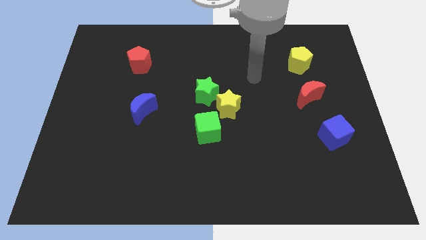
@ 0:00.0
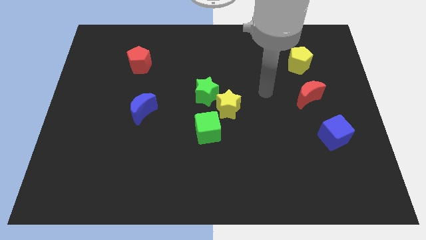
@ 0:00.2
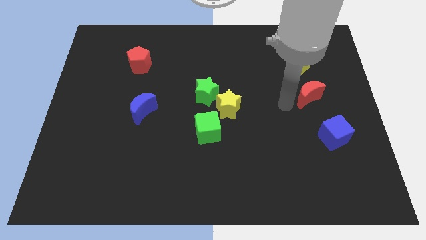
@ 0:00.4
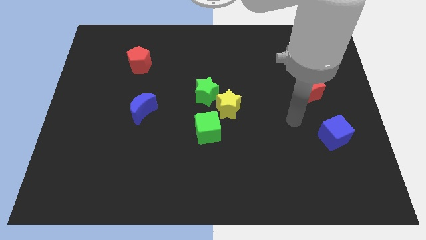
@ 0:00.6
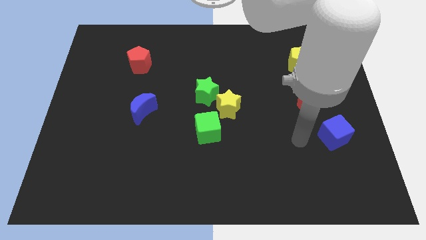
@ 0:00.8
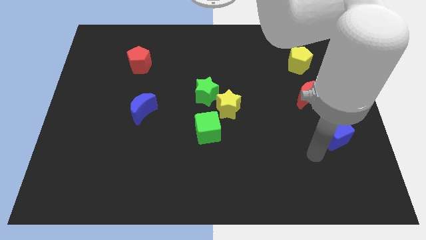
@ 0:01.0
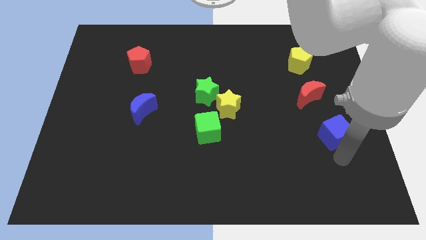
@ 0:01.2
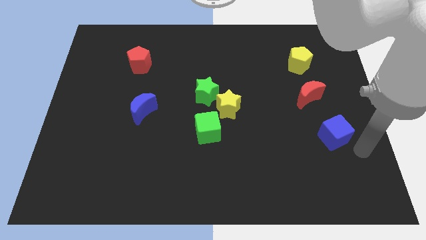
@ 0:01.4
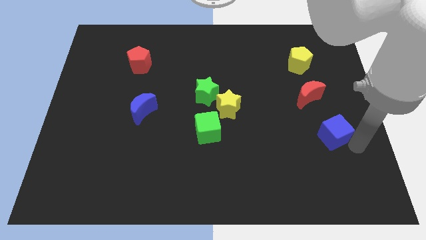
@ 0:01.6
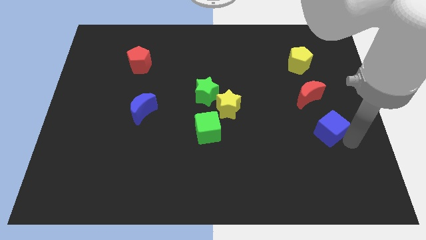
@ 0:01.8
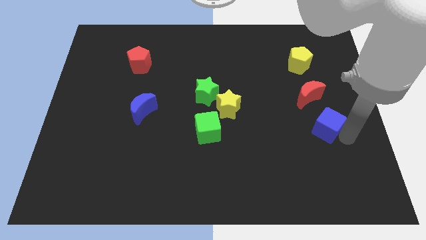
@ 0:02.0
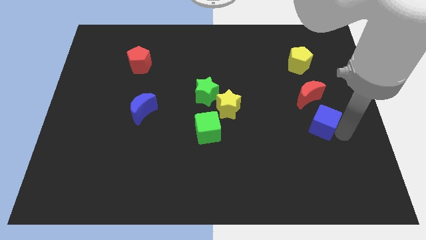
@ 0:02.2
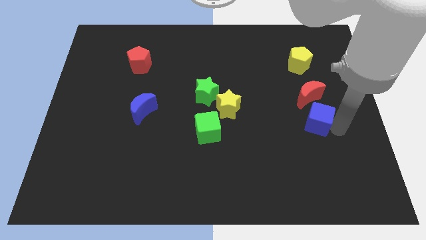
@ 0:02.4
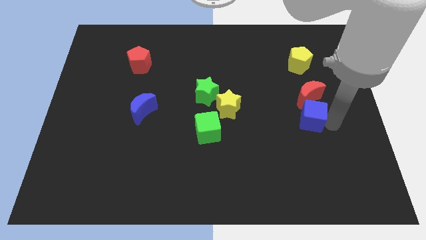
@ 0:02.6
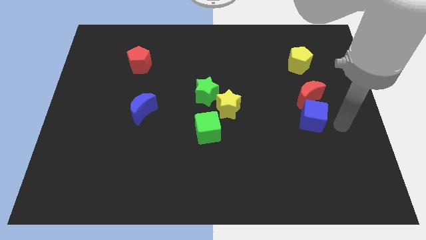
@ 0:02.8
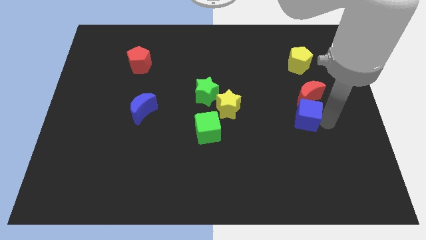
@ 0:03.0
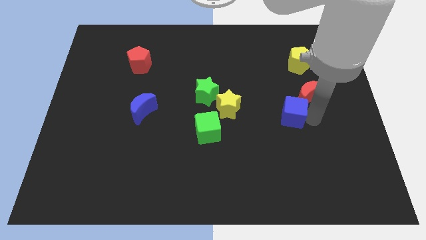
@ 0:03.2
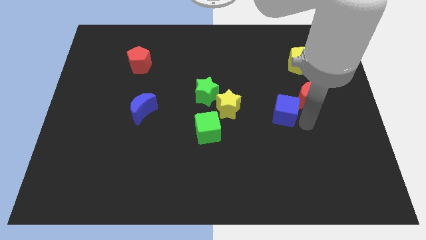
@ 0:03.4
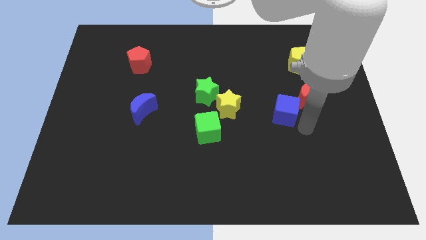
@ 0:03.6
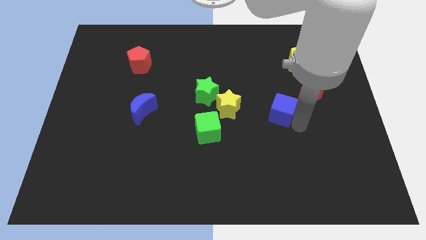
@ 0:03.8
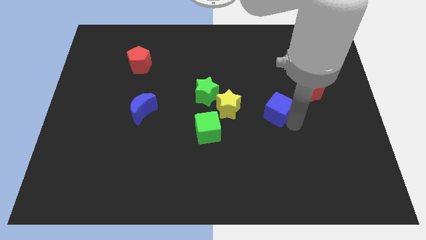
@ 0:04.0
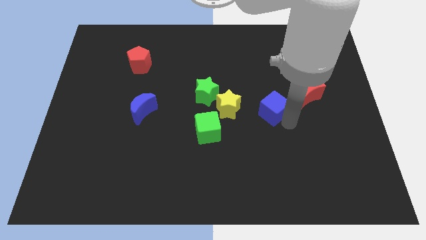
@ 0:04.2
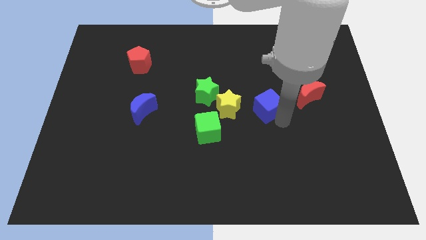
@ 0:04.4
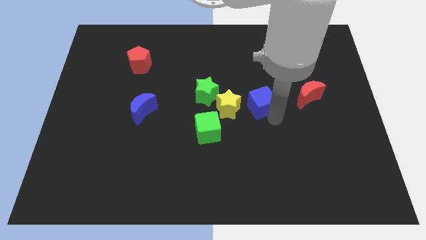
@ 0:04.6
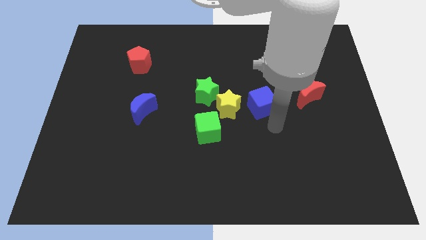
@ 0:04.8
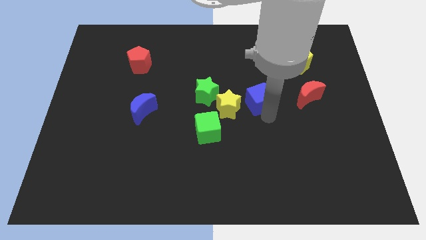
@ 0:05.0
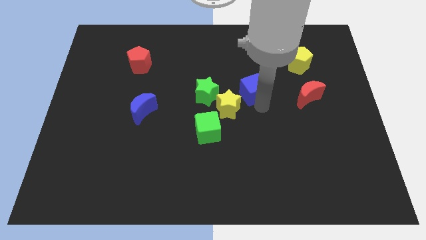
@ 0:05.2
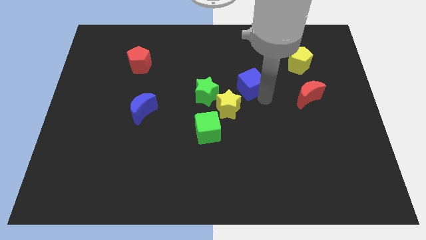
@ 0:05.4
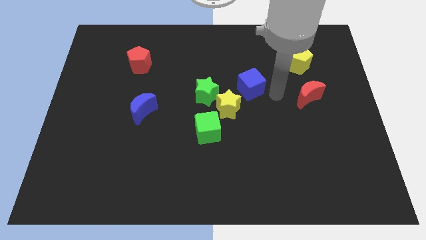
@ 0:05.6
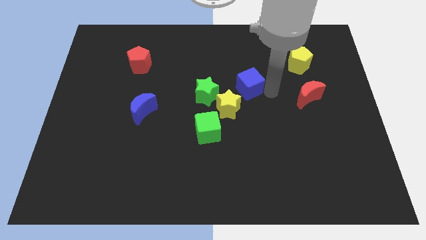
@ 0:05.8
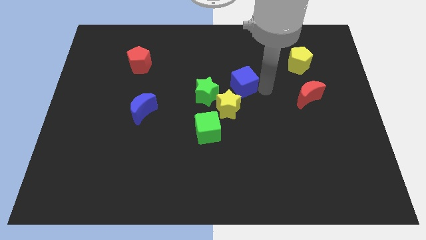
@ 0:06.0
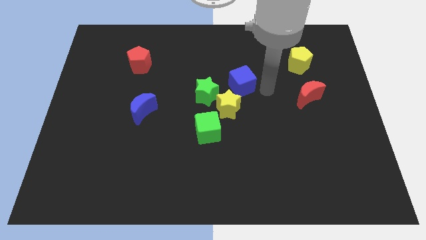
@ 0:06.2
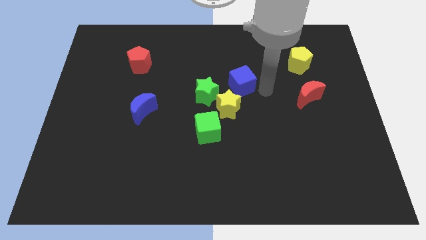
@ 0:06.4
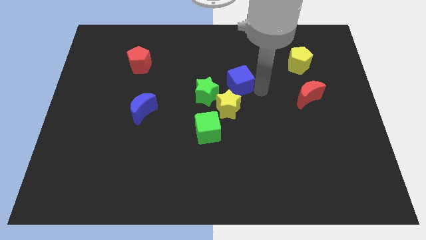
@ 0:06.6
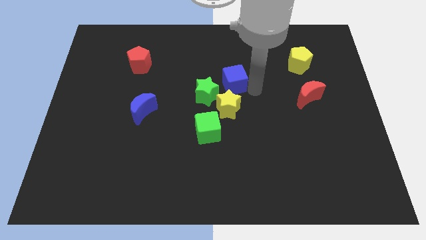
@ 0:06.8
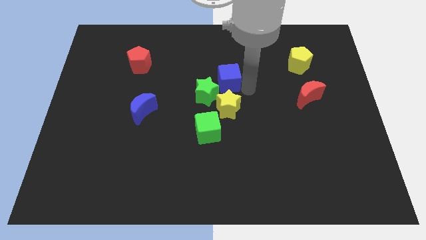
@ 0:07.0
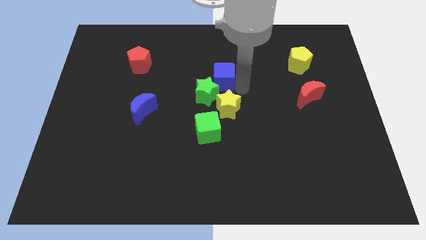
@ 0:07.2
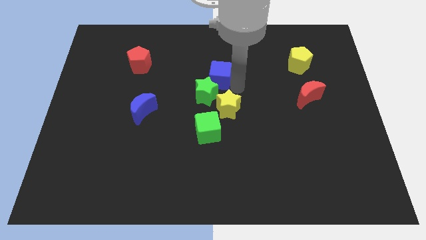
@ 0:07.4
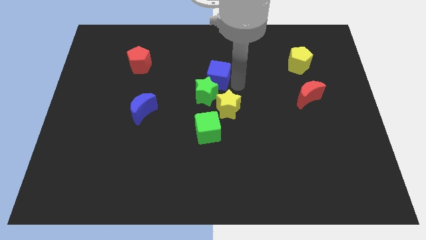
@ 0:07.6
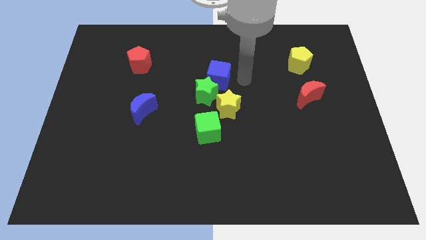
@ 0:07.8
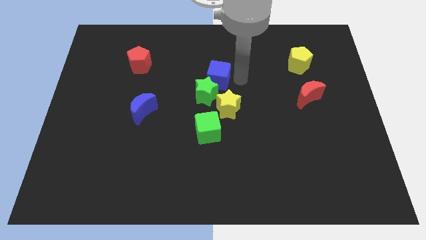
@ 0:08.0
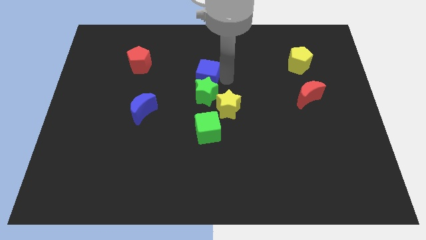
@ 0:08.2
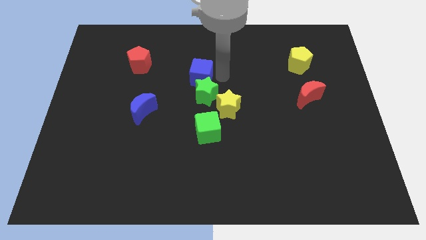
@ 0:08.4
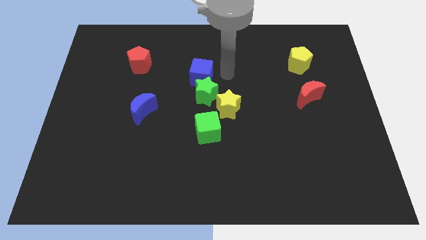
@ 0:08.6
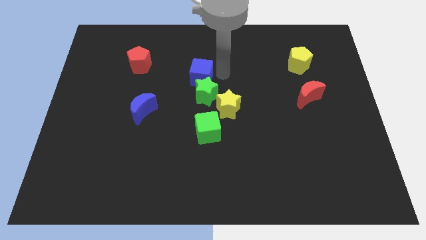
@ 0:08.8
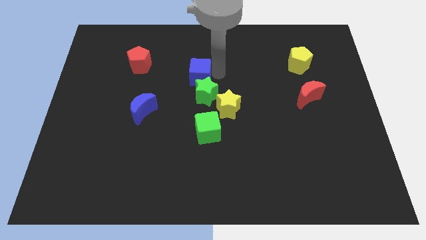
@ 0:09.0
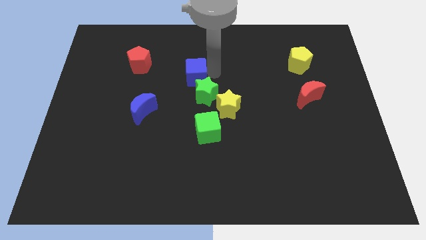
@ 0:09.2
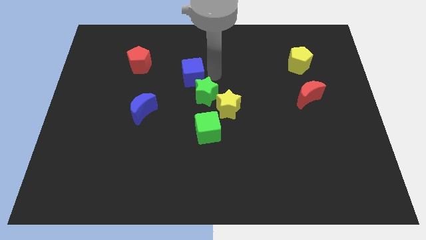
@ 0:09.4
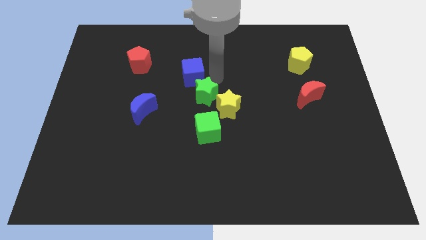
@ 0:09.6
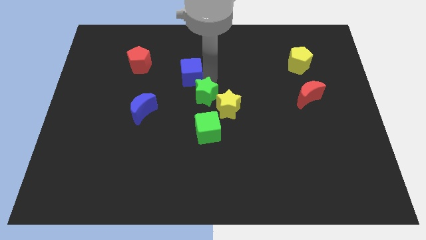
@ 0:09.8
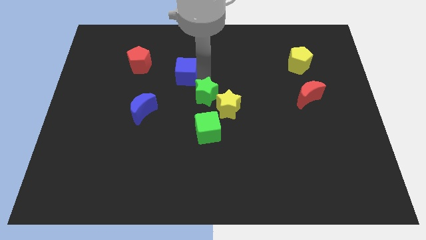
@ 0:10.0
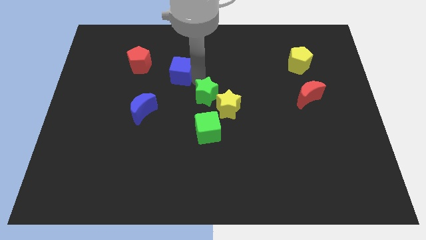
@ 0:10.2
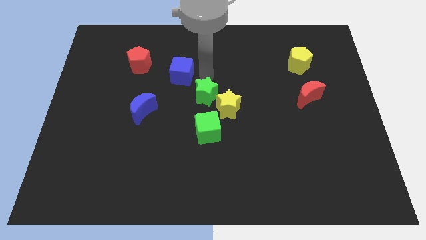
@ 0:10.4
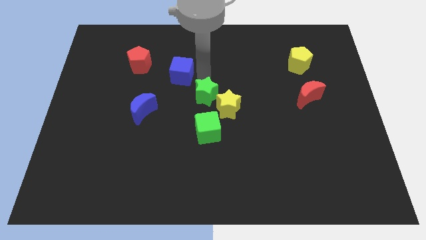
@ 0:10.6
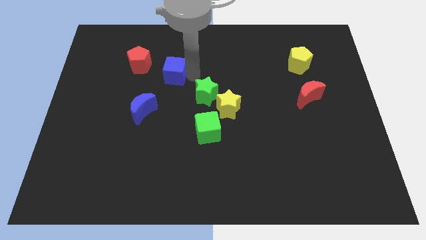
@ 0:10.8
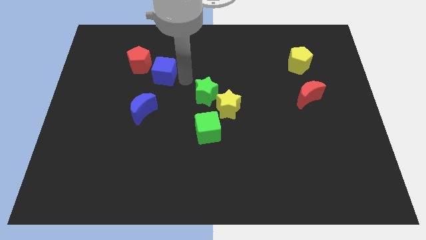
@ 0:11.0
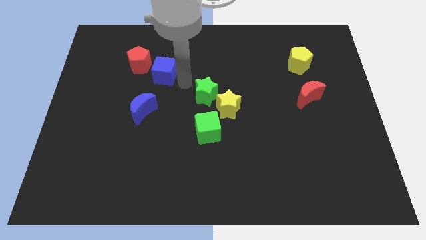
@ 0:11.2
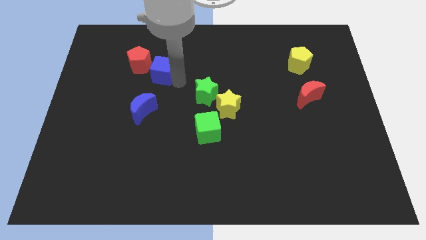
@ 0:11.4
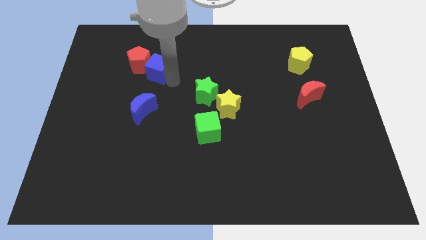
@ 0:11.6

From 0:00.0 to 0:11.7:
put the blue cube to the red pentagon

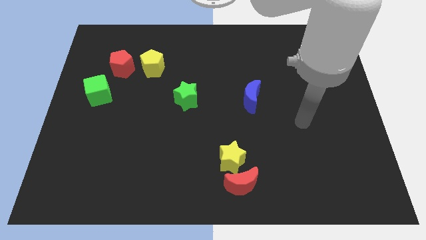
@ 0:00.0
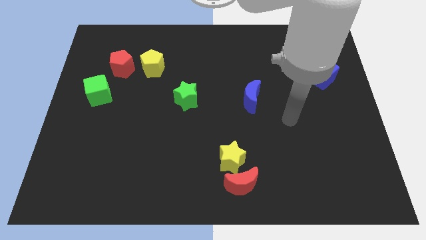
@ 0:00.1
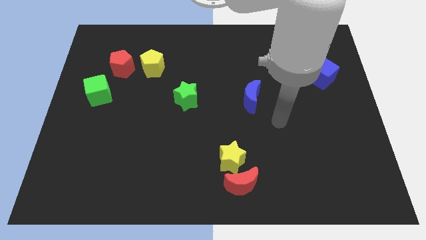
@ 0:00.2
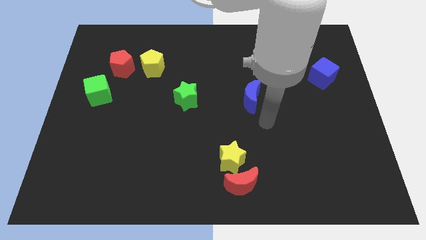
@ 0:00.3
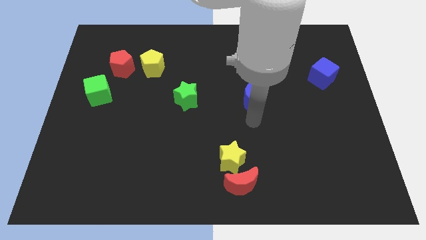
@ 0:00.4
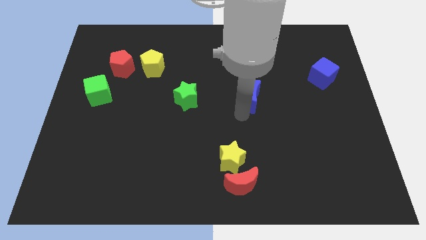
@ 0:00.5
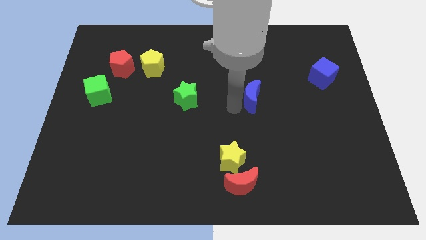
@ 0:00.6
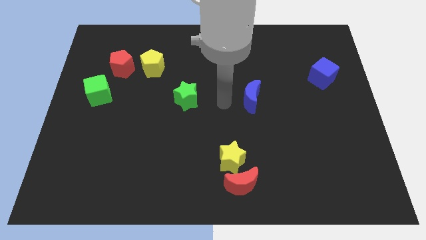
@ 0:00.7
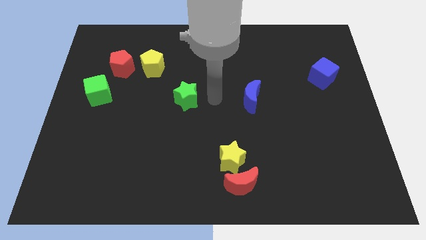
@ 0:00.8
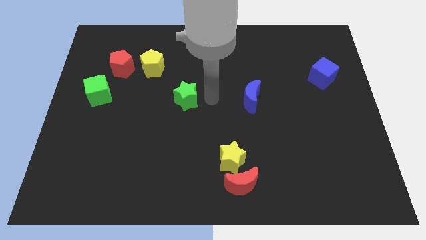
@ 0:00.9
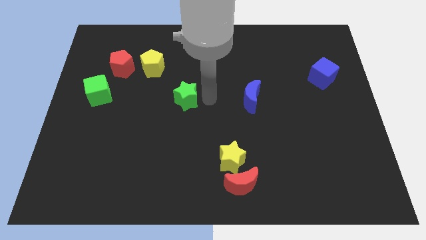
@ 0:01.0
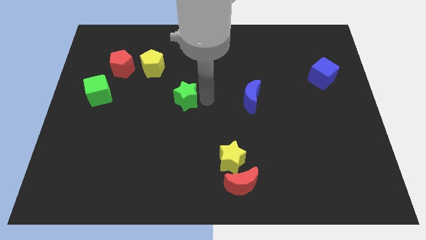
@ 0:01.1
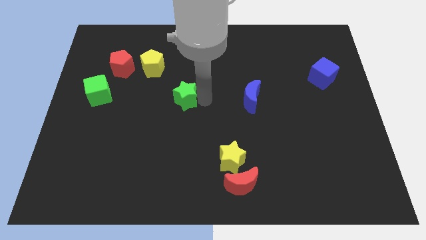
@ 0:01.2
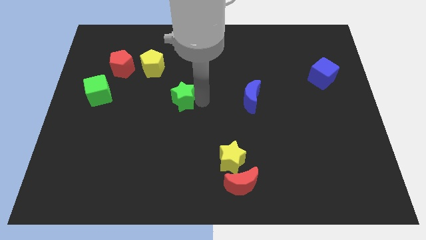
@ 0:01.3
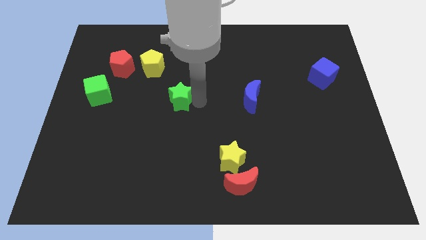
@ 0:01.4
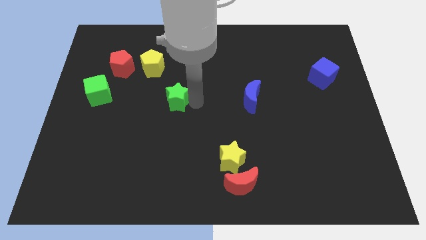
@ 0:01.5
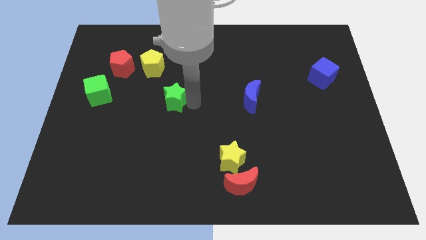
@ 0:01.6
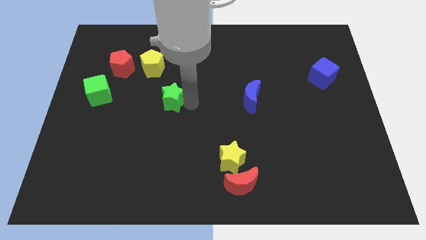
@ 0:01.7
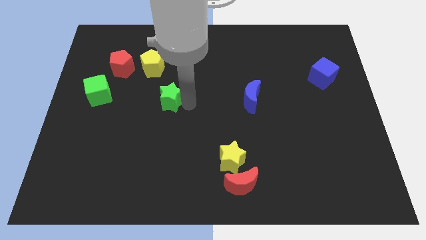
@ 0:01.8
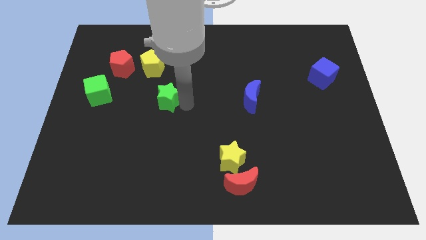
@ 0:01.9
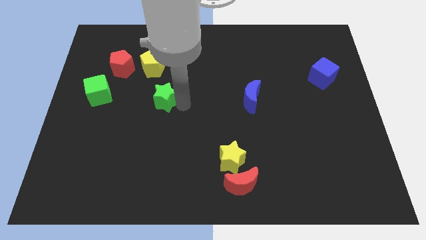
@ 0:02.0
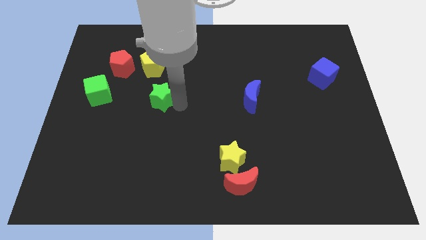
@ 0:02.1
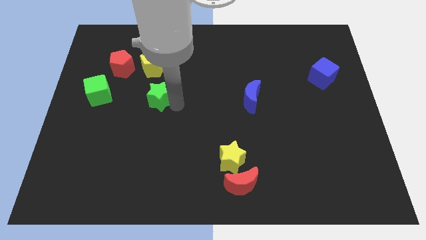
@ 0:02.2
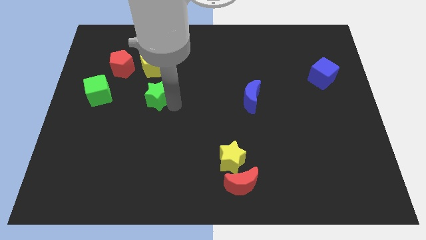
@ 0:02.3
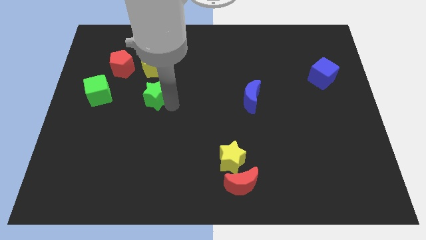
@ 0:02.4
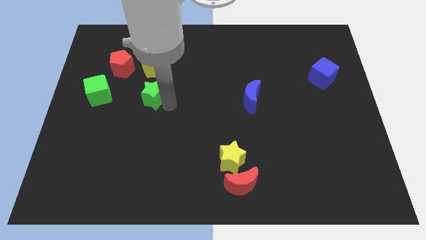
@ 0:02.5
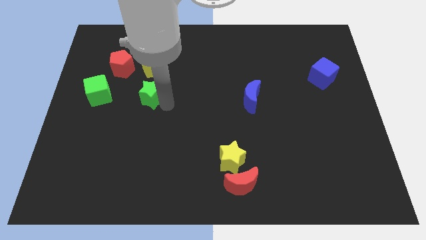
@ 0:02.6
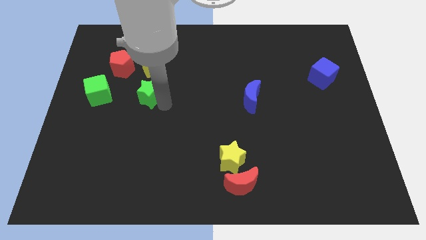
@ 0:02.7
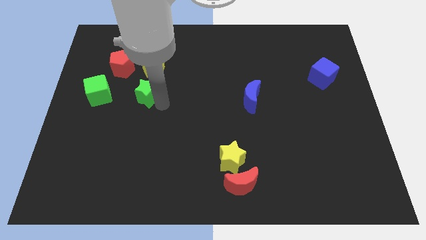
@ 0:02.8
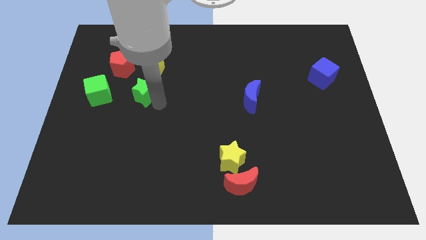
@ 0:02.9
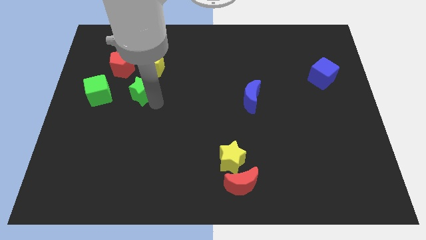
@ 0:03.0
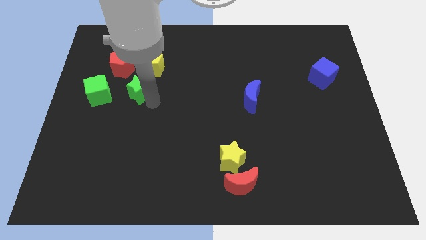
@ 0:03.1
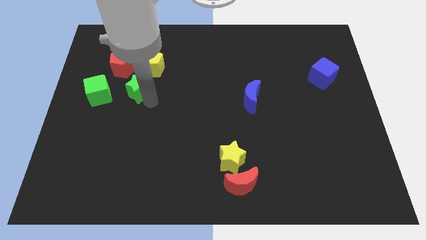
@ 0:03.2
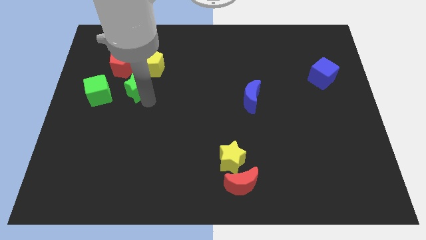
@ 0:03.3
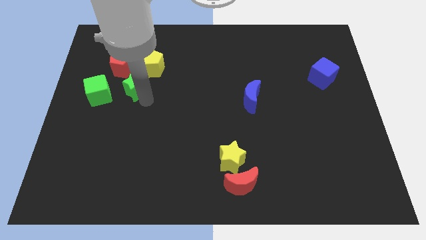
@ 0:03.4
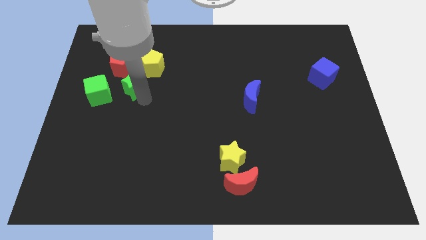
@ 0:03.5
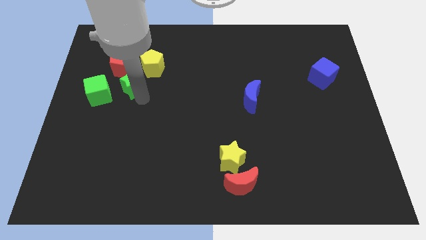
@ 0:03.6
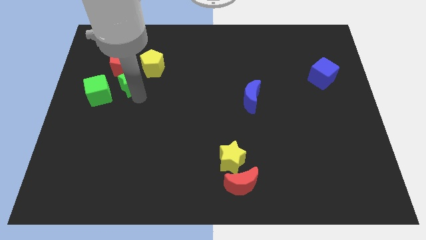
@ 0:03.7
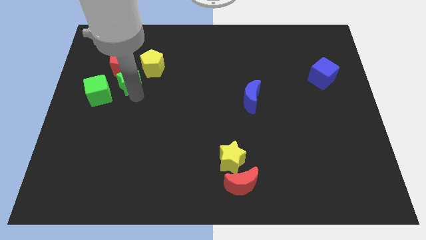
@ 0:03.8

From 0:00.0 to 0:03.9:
push the green star towards the red pentagon
